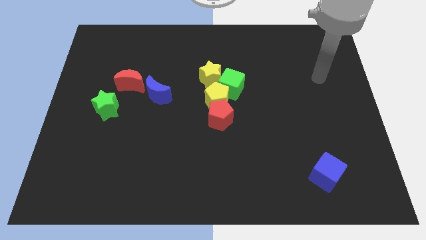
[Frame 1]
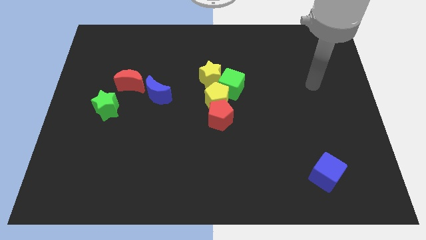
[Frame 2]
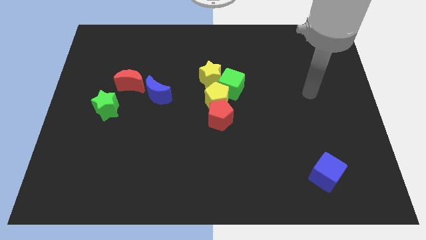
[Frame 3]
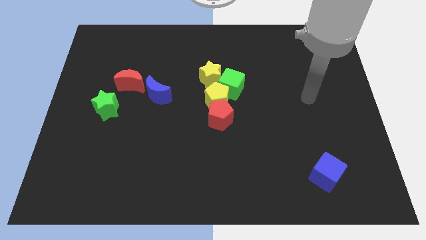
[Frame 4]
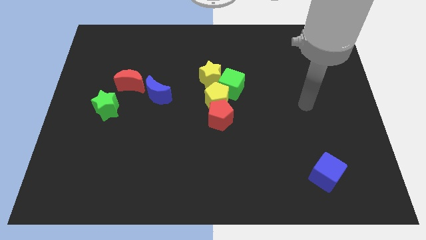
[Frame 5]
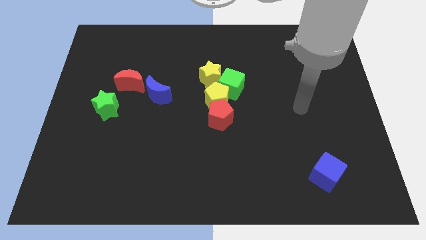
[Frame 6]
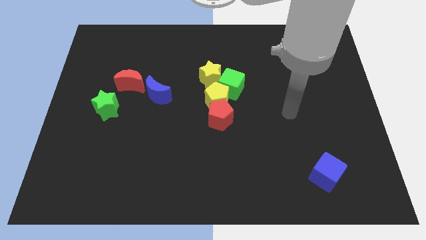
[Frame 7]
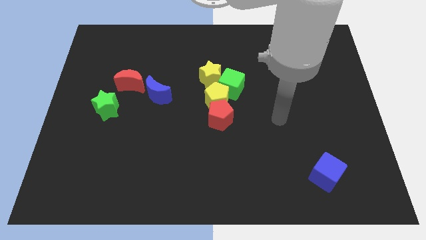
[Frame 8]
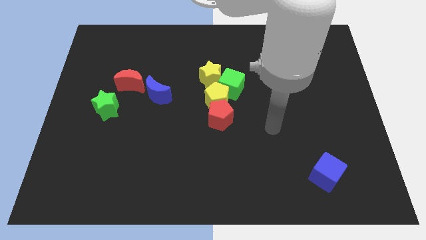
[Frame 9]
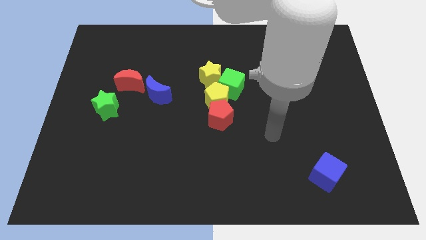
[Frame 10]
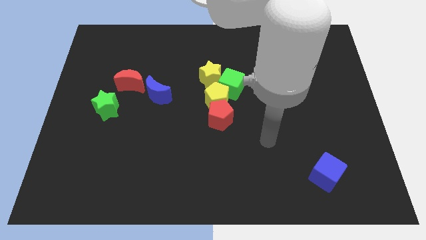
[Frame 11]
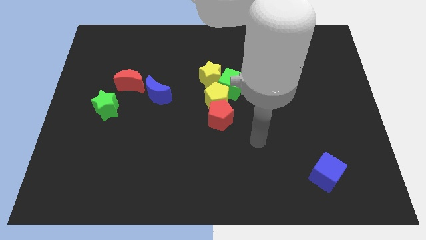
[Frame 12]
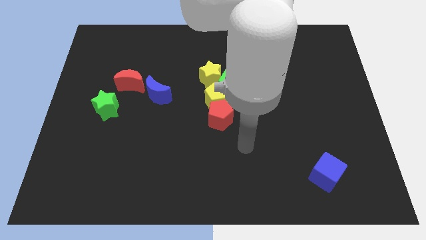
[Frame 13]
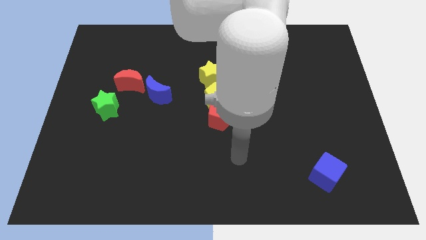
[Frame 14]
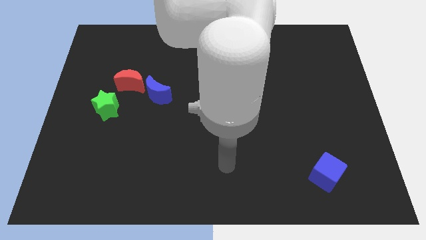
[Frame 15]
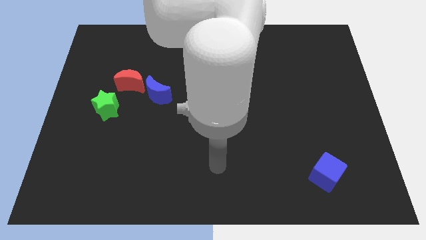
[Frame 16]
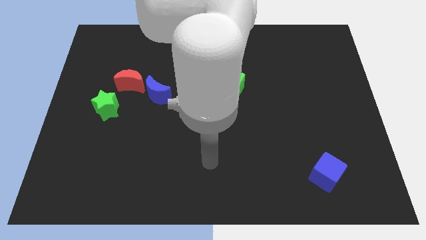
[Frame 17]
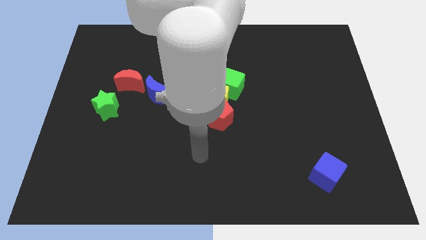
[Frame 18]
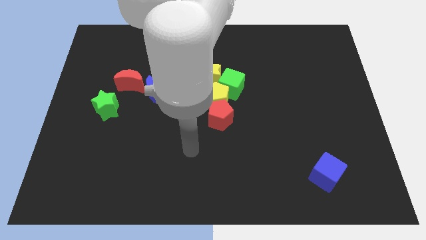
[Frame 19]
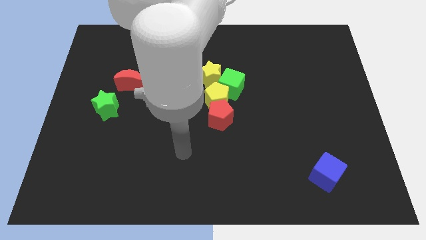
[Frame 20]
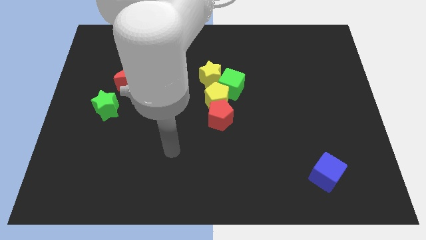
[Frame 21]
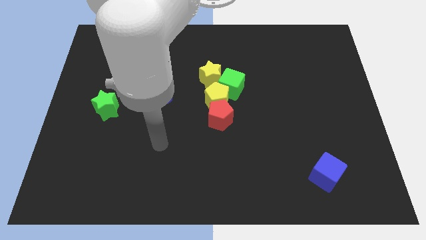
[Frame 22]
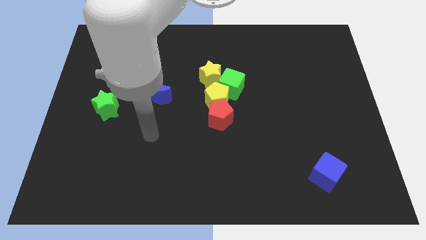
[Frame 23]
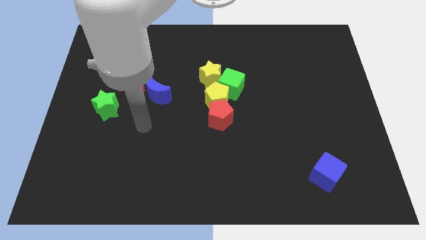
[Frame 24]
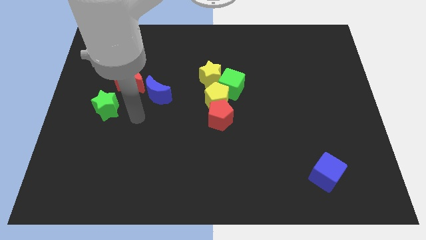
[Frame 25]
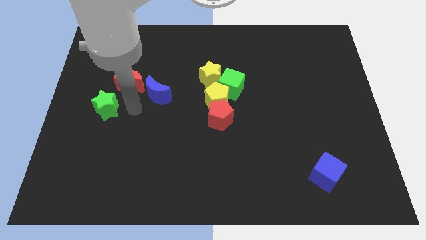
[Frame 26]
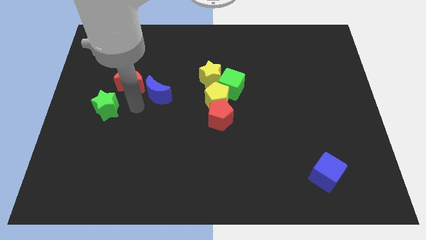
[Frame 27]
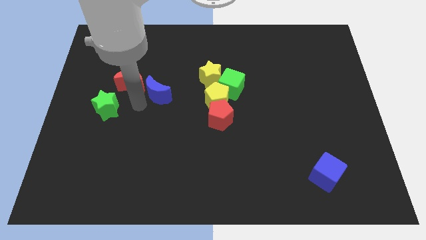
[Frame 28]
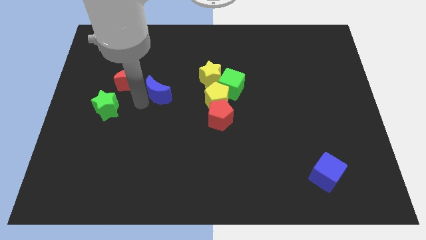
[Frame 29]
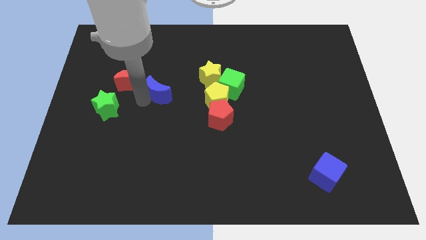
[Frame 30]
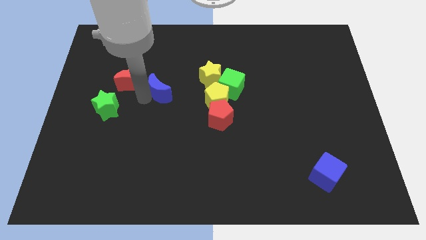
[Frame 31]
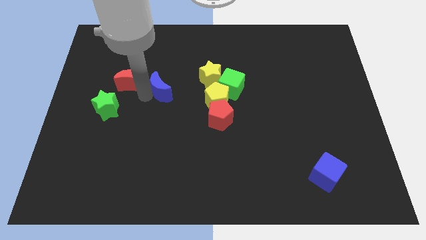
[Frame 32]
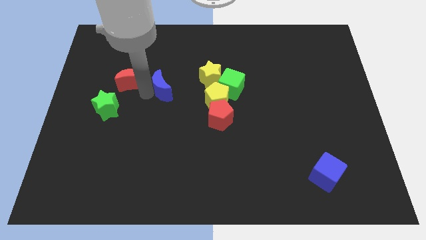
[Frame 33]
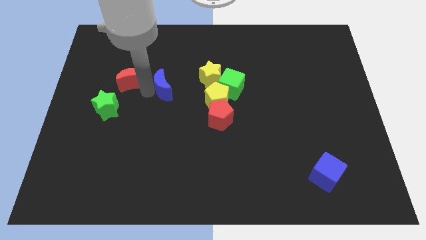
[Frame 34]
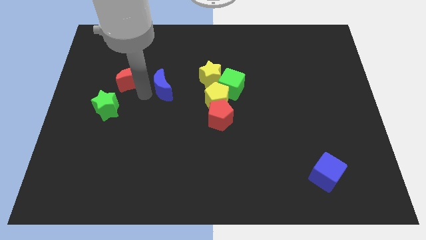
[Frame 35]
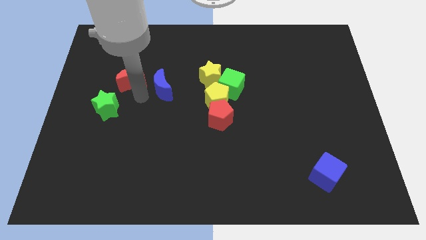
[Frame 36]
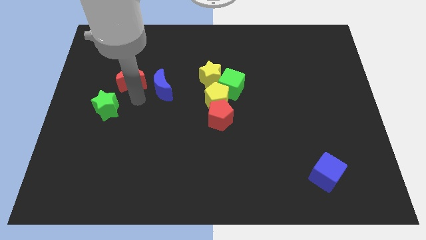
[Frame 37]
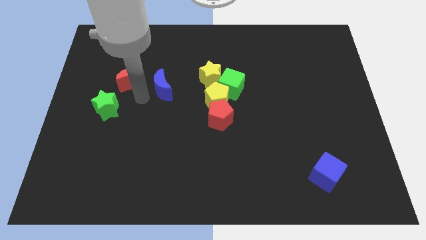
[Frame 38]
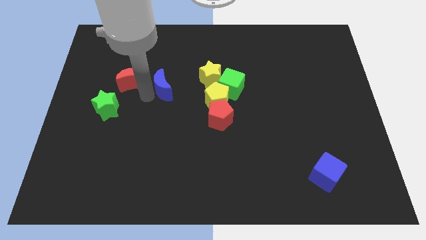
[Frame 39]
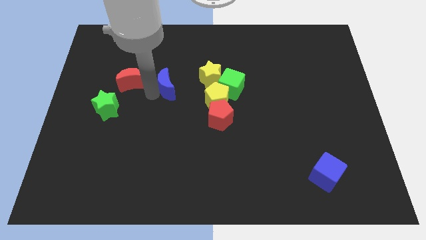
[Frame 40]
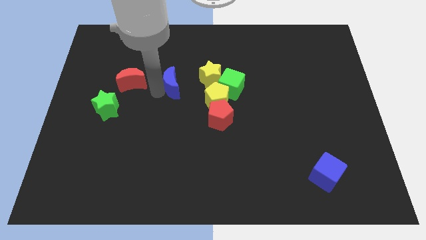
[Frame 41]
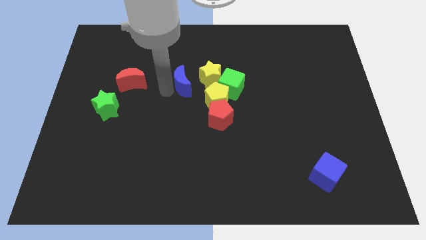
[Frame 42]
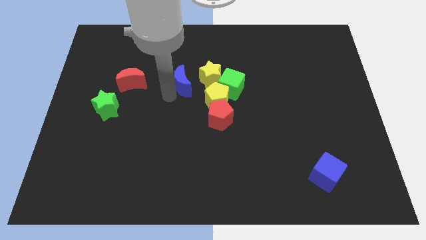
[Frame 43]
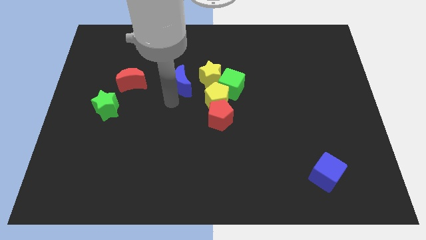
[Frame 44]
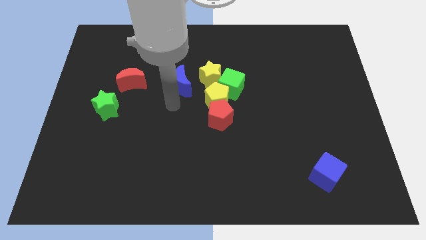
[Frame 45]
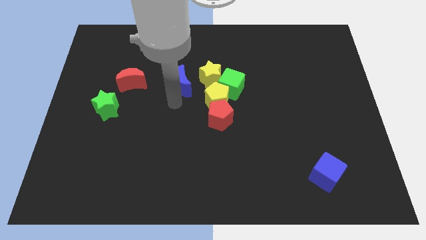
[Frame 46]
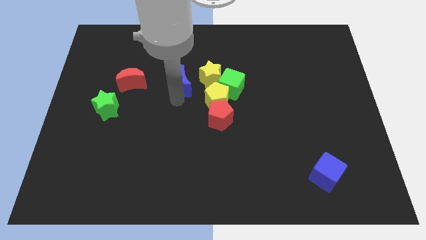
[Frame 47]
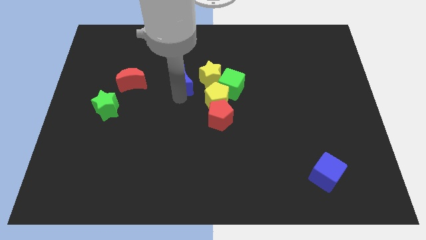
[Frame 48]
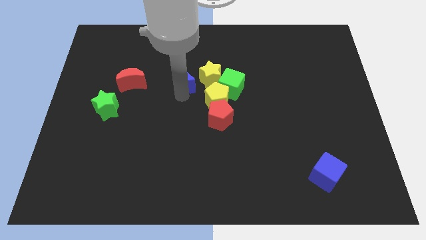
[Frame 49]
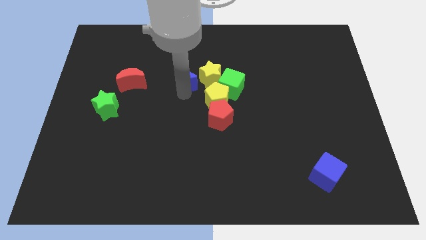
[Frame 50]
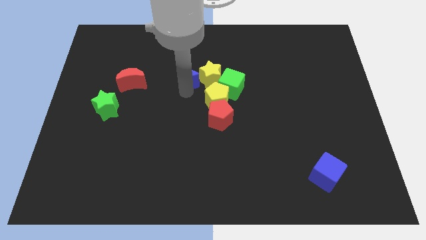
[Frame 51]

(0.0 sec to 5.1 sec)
move the blue moon to the top left side of the yellow star

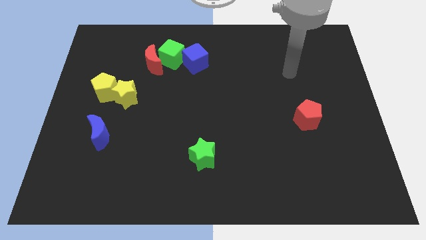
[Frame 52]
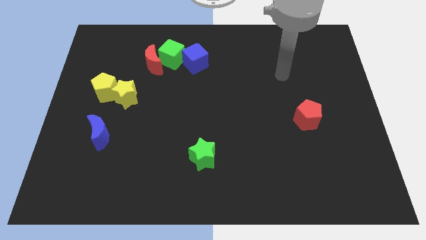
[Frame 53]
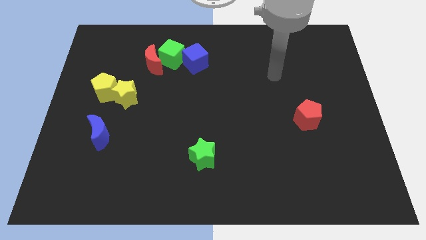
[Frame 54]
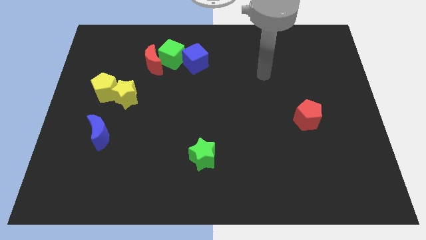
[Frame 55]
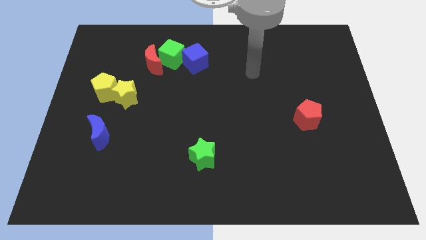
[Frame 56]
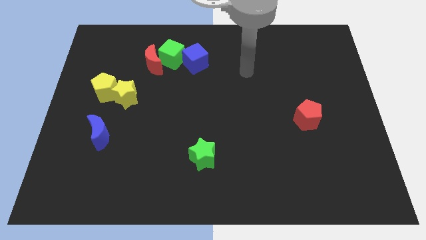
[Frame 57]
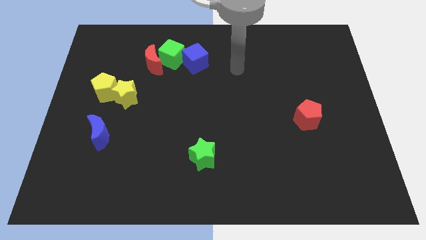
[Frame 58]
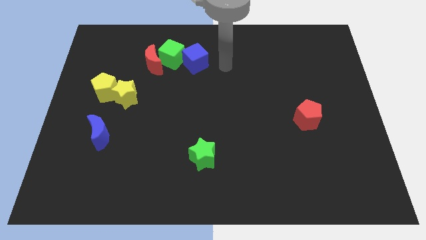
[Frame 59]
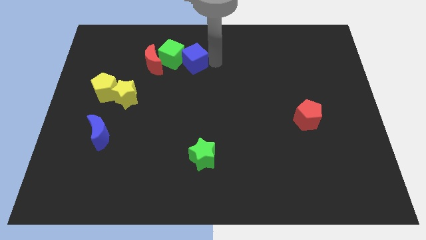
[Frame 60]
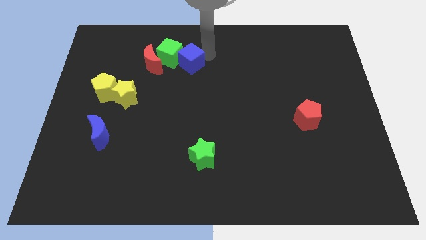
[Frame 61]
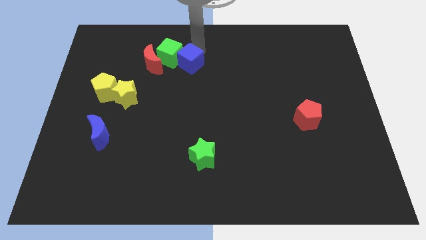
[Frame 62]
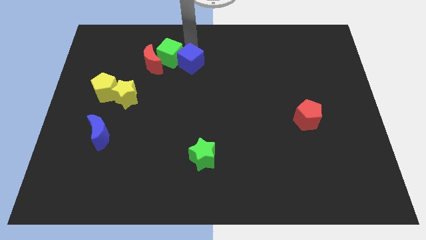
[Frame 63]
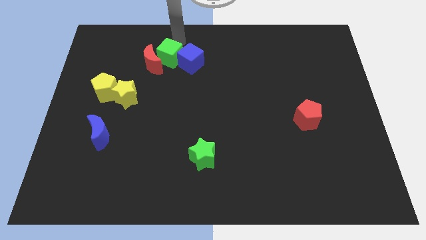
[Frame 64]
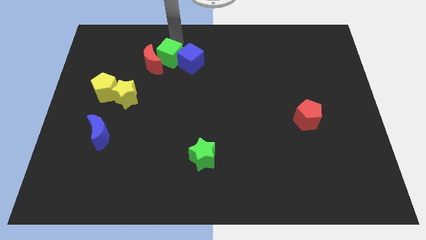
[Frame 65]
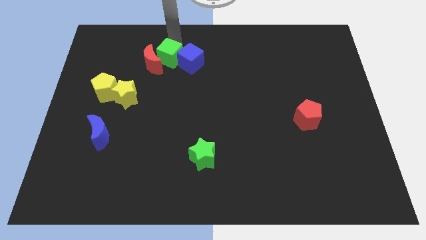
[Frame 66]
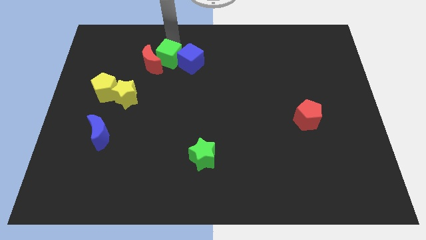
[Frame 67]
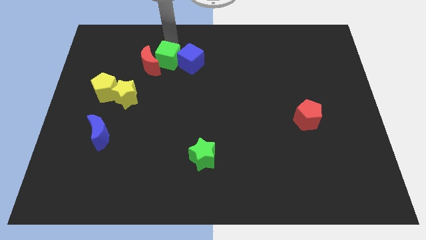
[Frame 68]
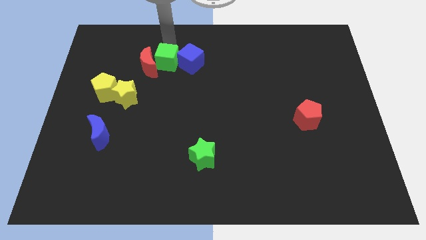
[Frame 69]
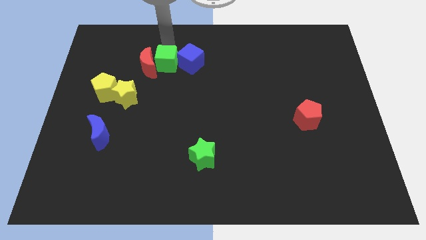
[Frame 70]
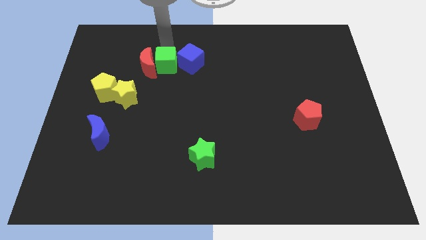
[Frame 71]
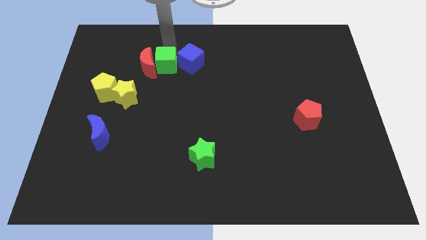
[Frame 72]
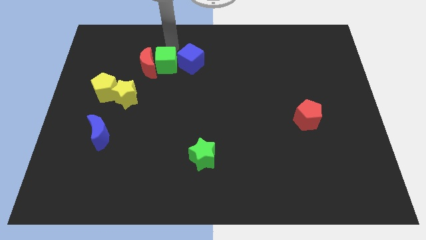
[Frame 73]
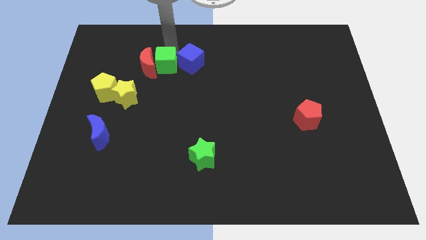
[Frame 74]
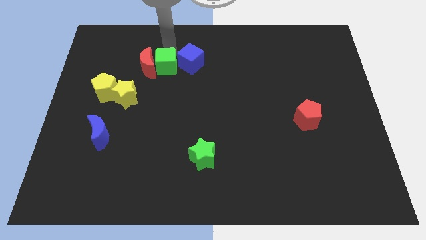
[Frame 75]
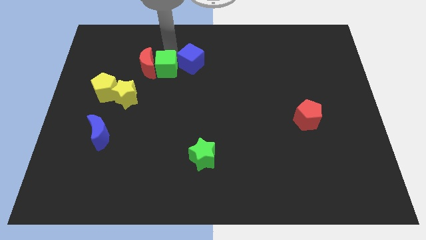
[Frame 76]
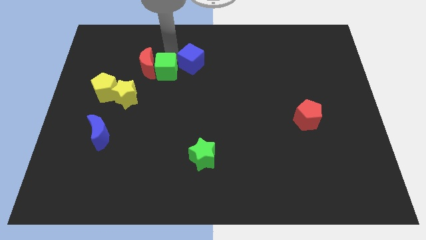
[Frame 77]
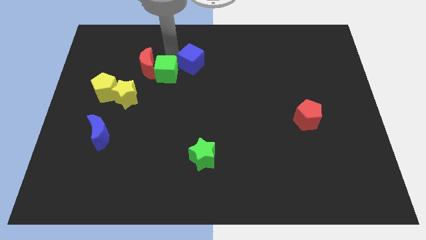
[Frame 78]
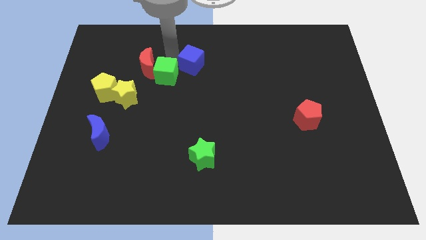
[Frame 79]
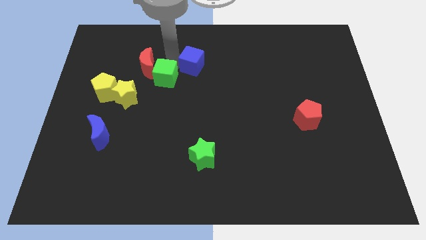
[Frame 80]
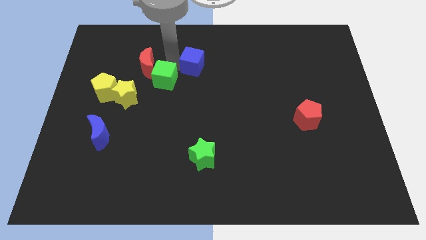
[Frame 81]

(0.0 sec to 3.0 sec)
slide the green cube right of the yellow pentagon
